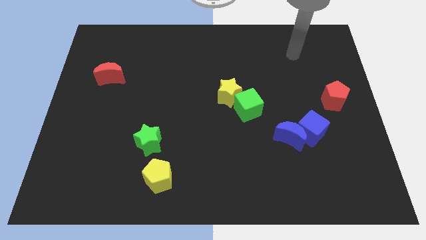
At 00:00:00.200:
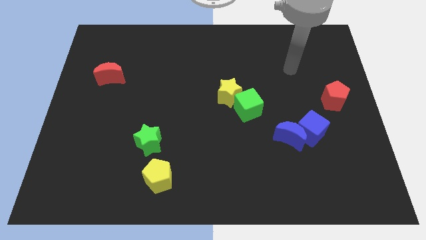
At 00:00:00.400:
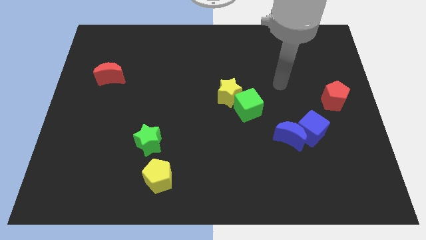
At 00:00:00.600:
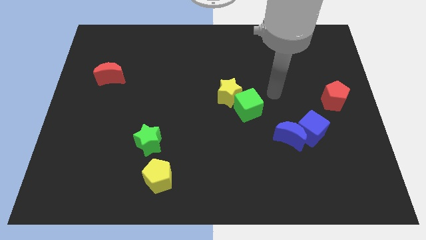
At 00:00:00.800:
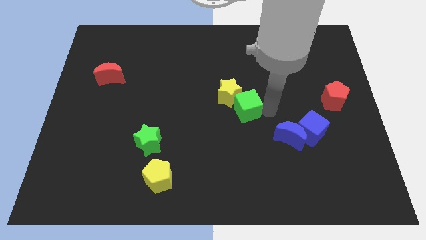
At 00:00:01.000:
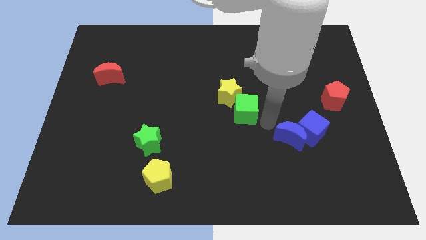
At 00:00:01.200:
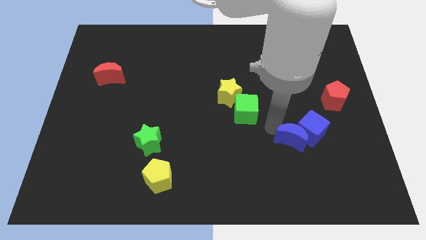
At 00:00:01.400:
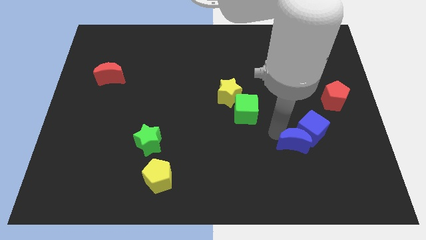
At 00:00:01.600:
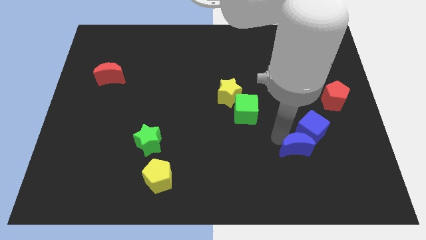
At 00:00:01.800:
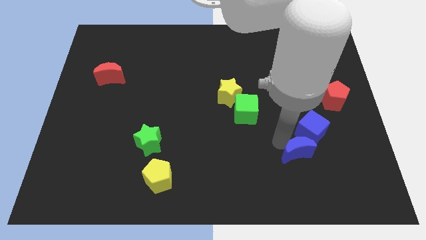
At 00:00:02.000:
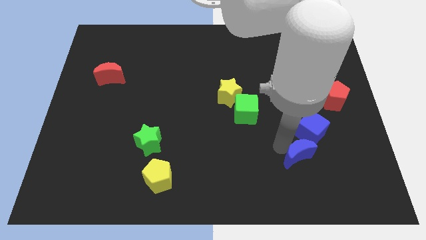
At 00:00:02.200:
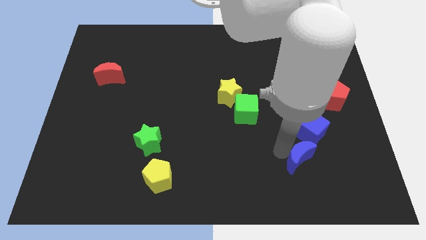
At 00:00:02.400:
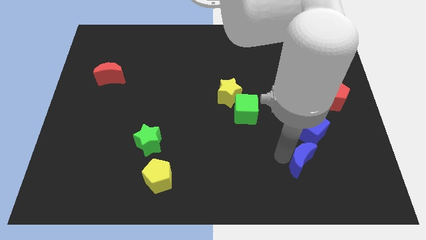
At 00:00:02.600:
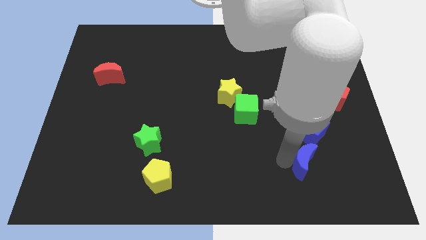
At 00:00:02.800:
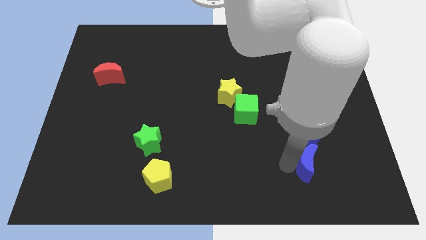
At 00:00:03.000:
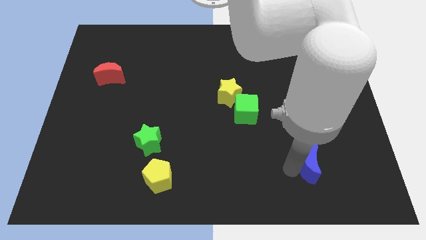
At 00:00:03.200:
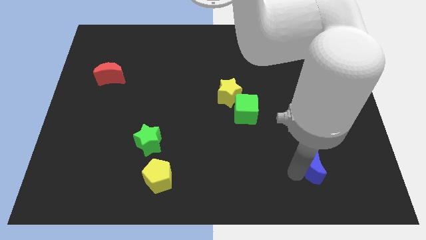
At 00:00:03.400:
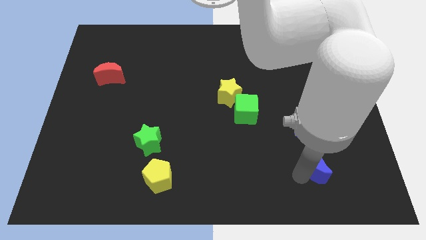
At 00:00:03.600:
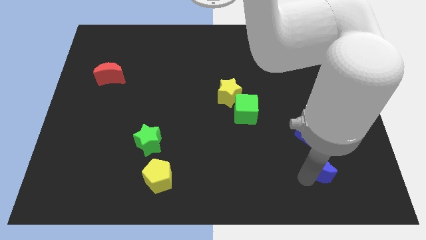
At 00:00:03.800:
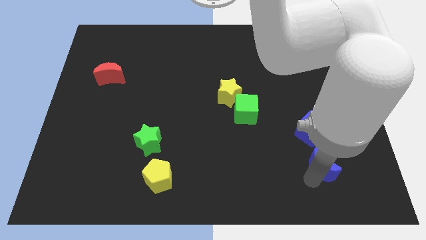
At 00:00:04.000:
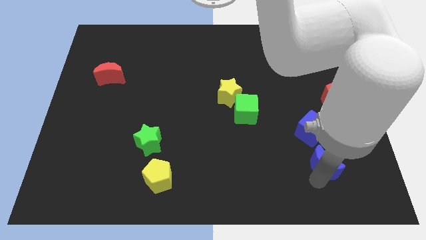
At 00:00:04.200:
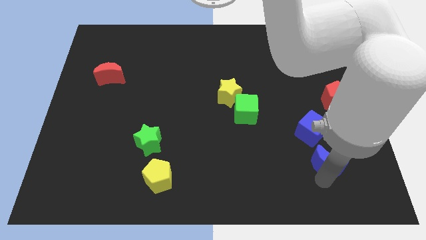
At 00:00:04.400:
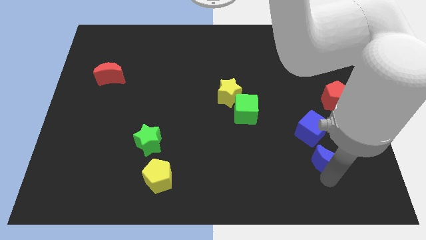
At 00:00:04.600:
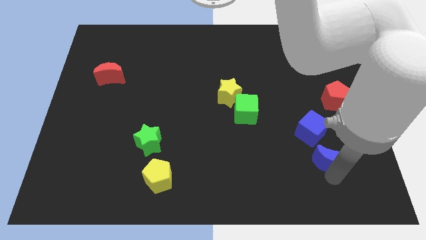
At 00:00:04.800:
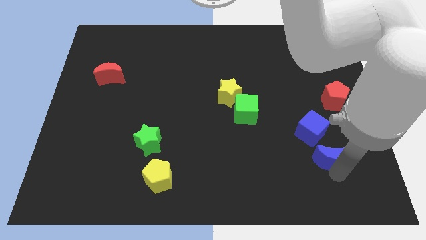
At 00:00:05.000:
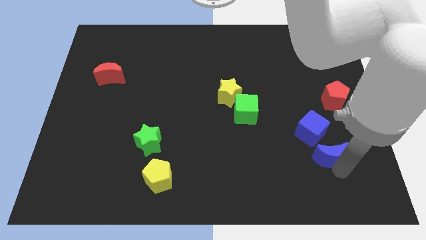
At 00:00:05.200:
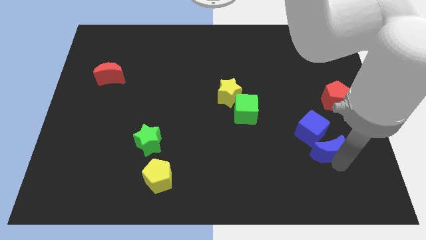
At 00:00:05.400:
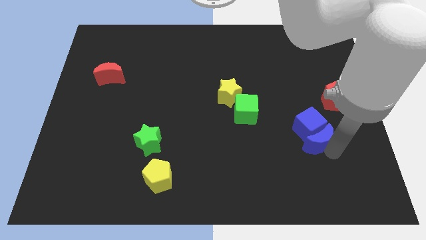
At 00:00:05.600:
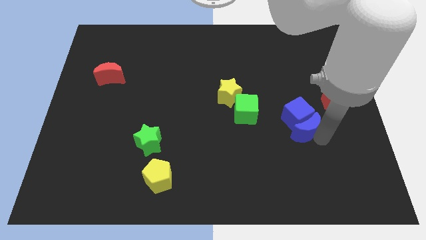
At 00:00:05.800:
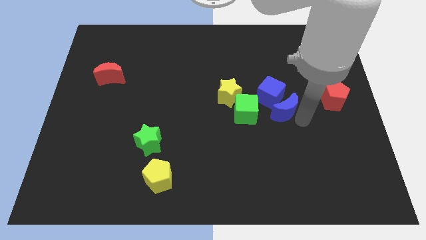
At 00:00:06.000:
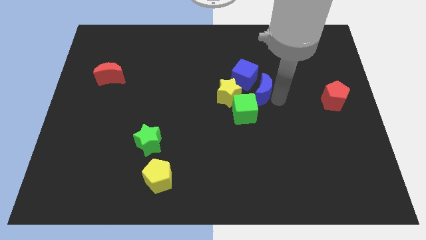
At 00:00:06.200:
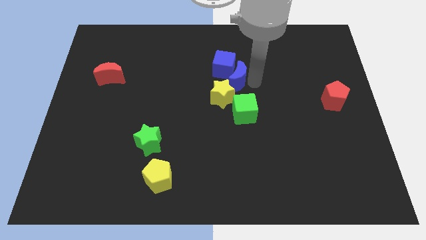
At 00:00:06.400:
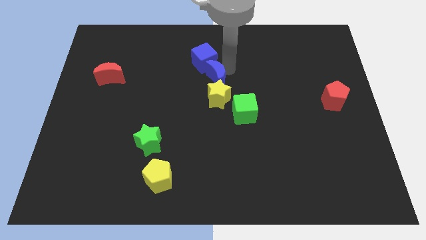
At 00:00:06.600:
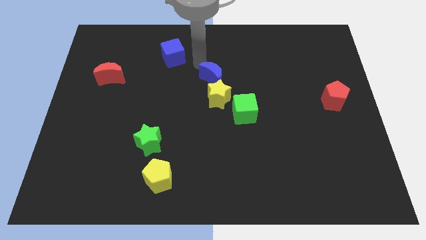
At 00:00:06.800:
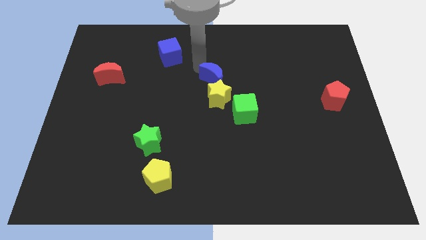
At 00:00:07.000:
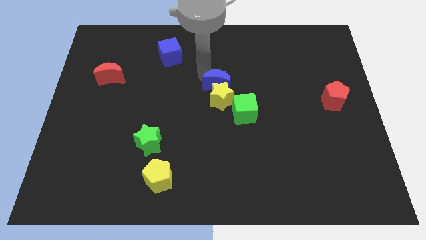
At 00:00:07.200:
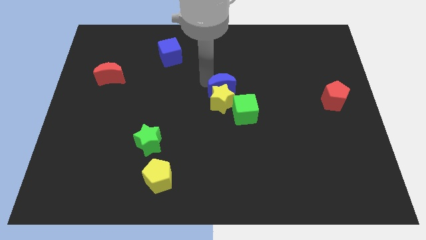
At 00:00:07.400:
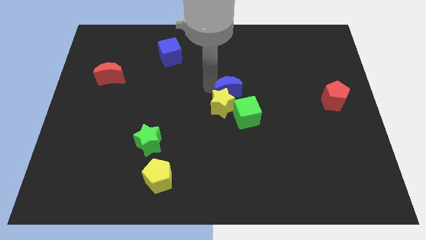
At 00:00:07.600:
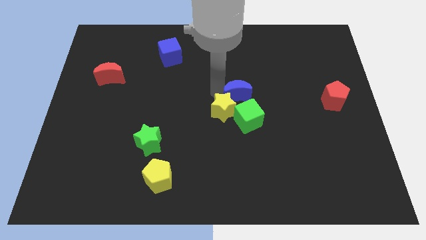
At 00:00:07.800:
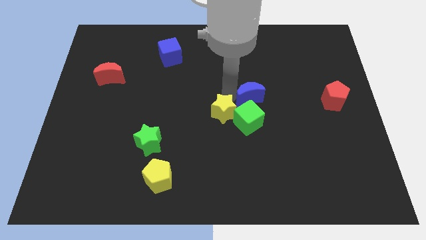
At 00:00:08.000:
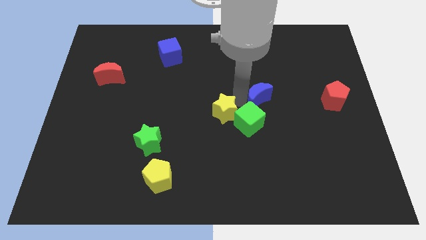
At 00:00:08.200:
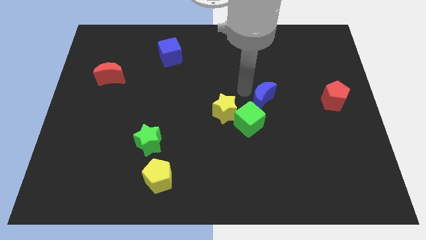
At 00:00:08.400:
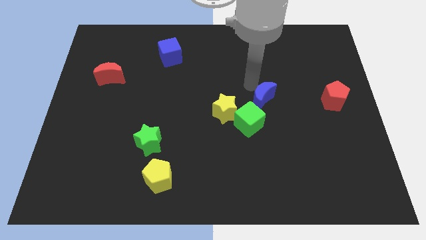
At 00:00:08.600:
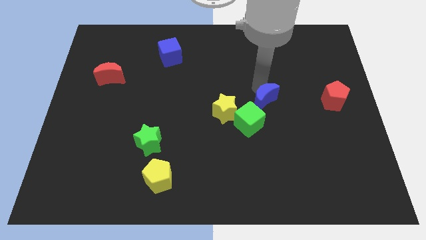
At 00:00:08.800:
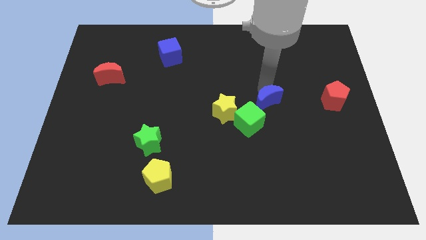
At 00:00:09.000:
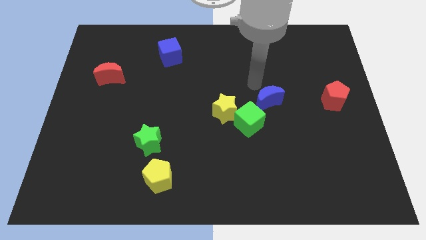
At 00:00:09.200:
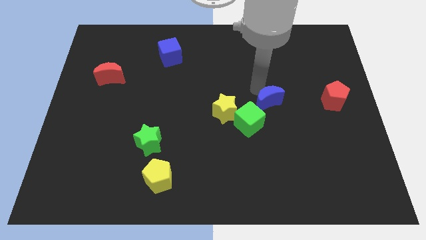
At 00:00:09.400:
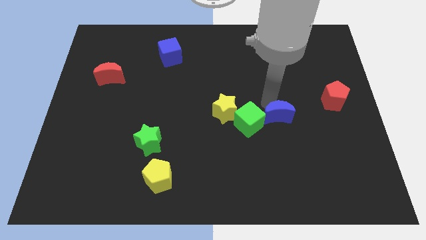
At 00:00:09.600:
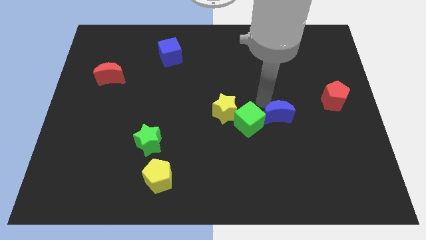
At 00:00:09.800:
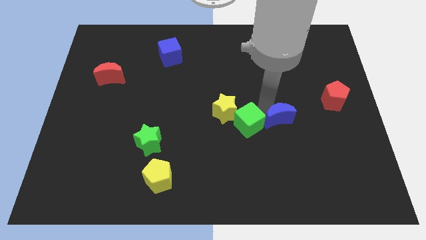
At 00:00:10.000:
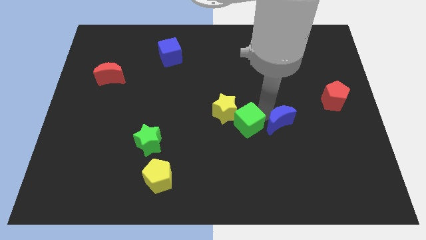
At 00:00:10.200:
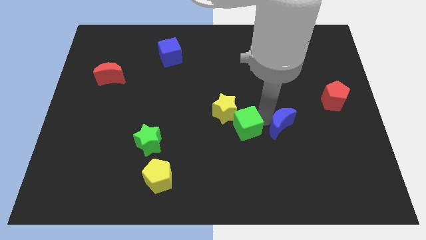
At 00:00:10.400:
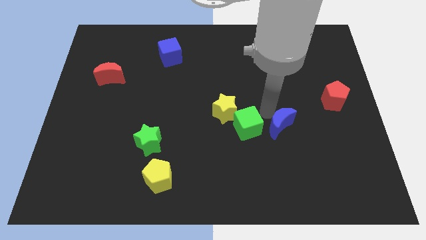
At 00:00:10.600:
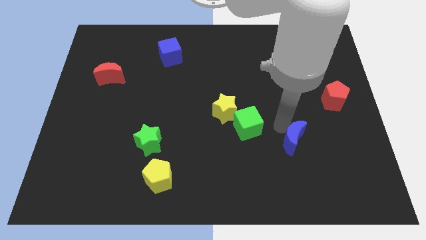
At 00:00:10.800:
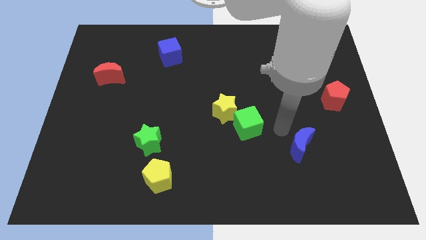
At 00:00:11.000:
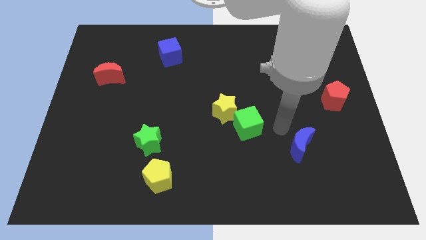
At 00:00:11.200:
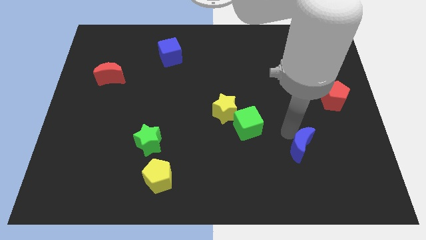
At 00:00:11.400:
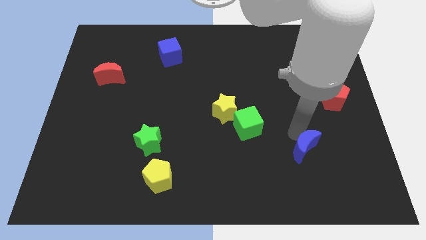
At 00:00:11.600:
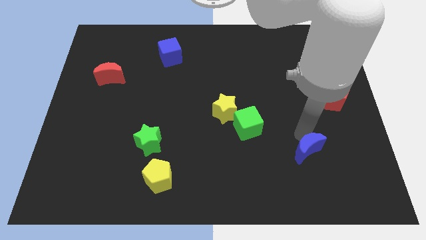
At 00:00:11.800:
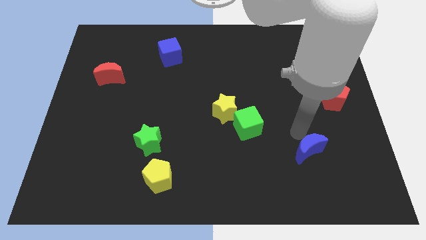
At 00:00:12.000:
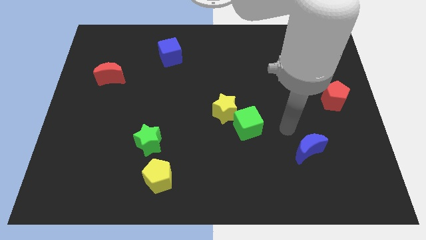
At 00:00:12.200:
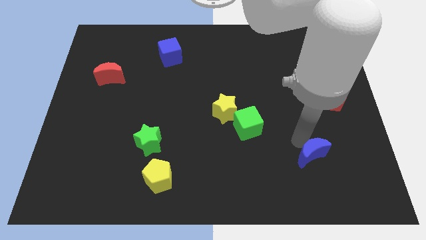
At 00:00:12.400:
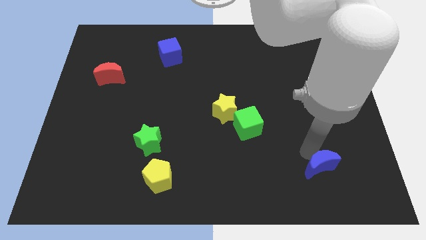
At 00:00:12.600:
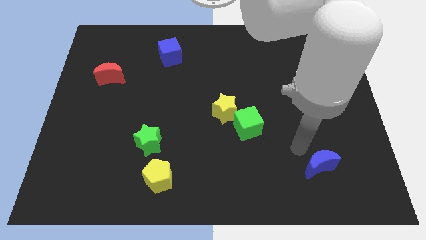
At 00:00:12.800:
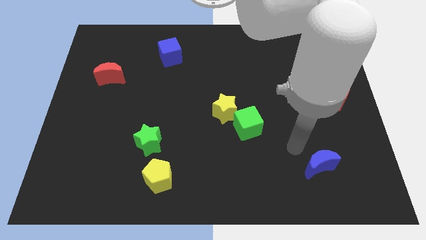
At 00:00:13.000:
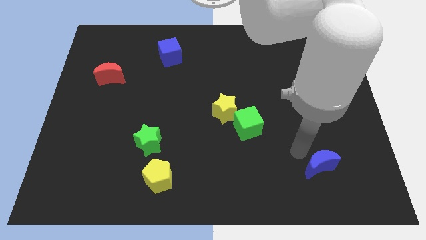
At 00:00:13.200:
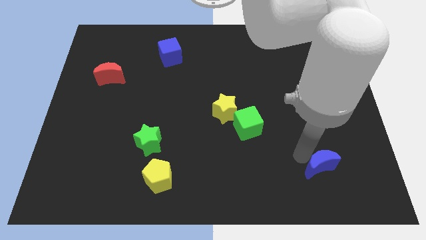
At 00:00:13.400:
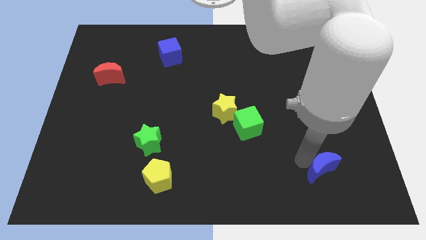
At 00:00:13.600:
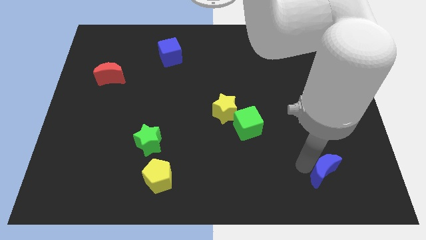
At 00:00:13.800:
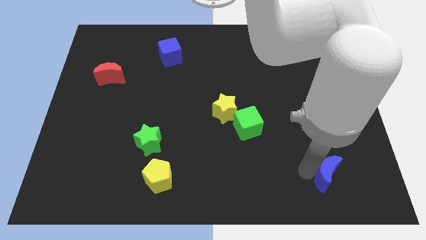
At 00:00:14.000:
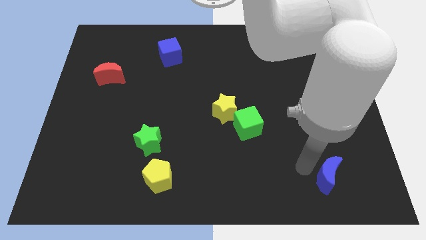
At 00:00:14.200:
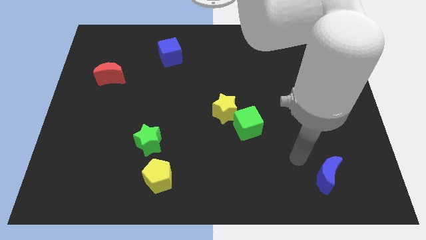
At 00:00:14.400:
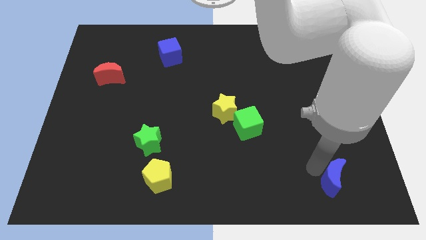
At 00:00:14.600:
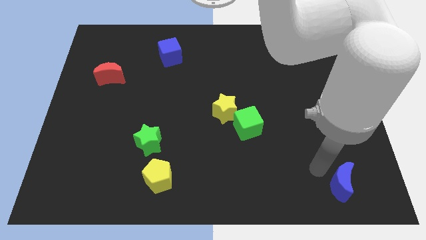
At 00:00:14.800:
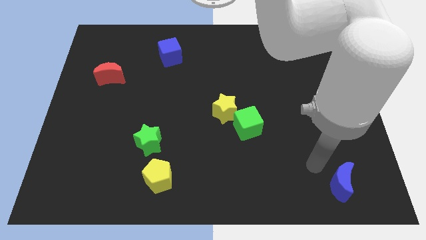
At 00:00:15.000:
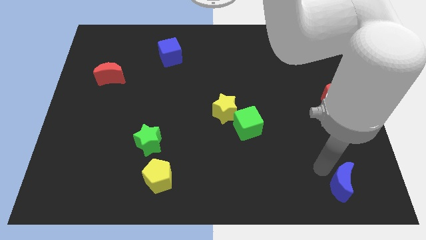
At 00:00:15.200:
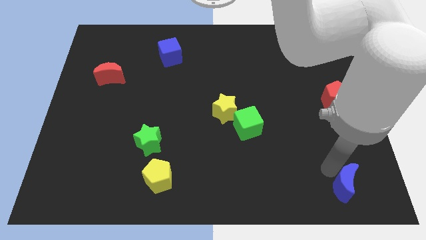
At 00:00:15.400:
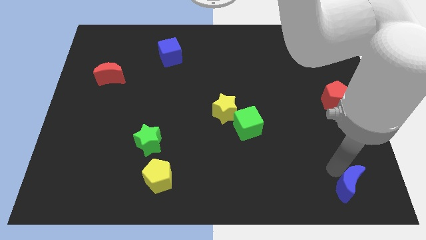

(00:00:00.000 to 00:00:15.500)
put the blue moon to the lower right corner
